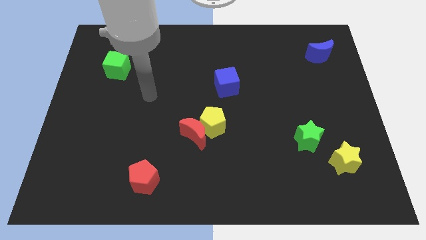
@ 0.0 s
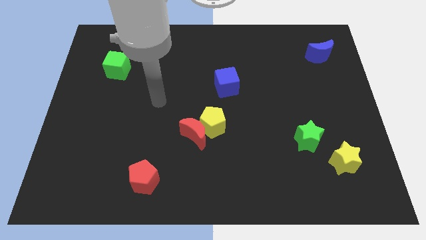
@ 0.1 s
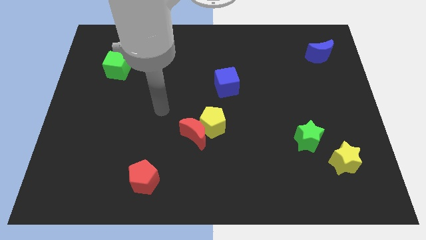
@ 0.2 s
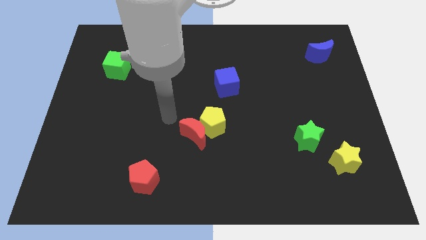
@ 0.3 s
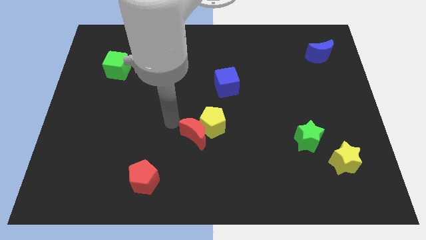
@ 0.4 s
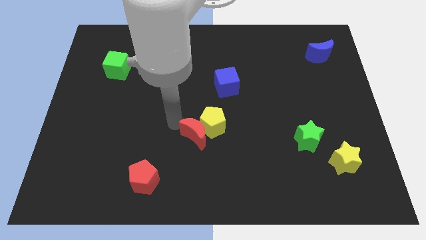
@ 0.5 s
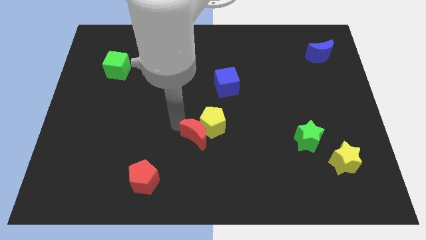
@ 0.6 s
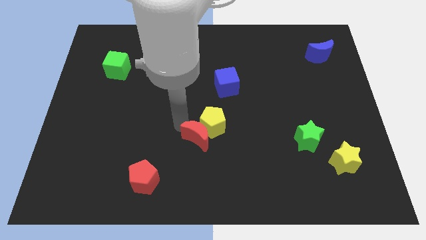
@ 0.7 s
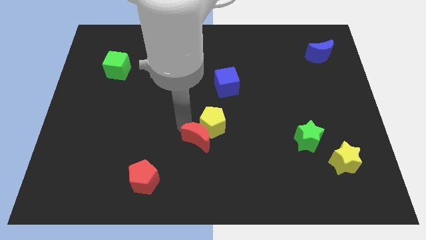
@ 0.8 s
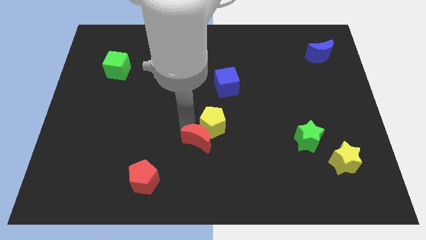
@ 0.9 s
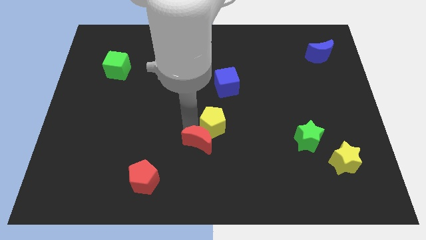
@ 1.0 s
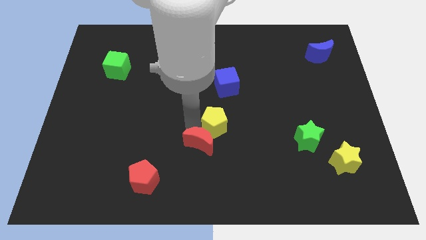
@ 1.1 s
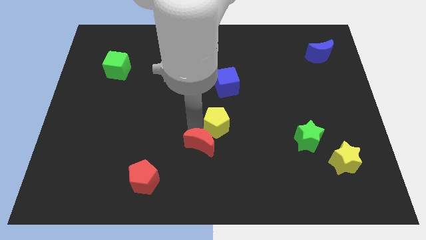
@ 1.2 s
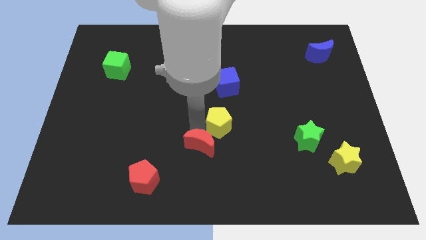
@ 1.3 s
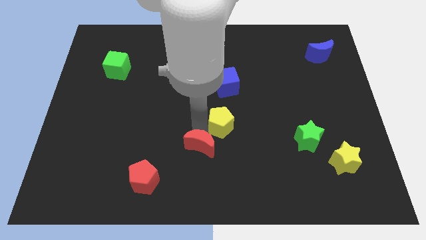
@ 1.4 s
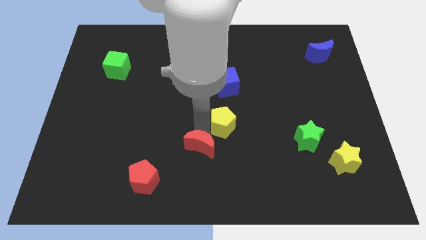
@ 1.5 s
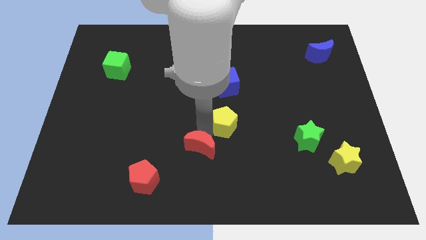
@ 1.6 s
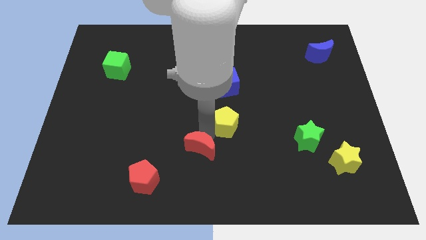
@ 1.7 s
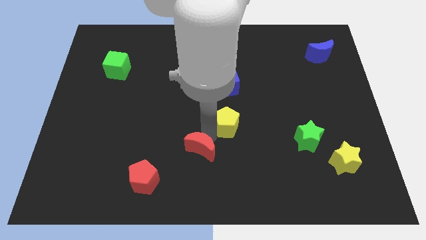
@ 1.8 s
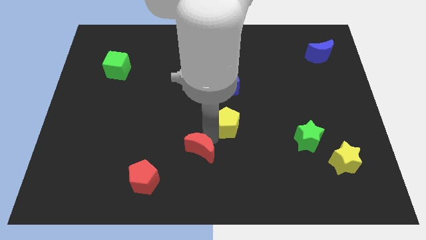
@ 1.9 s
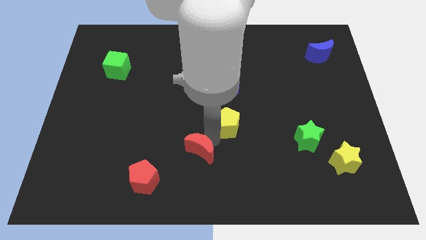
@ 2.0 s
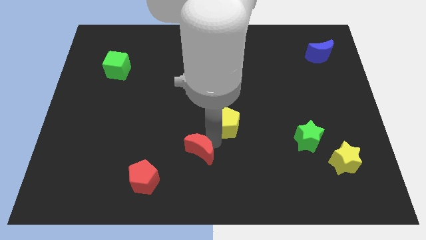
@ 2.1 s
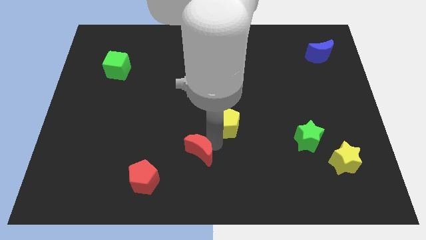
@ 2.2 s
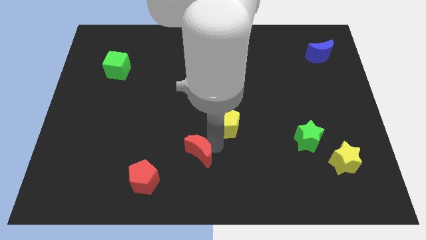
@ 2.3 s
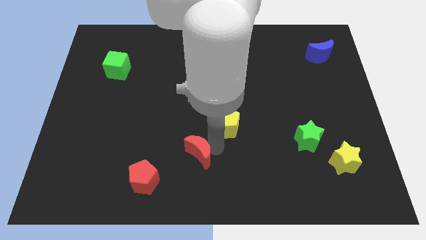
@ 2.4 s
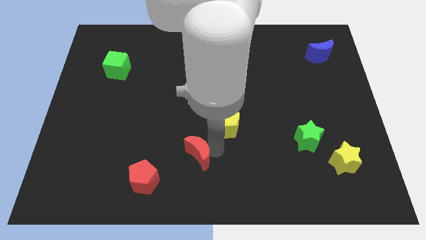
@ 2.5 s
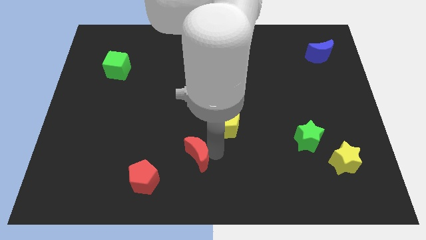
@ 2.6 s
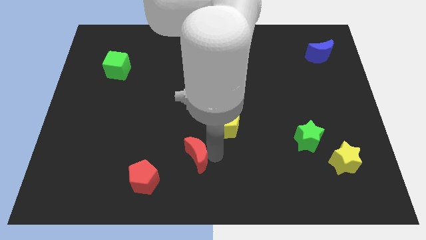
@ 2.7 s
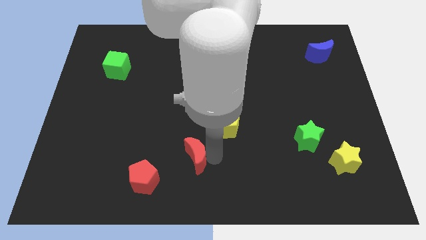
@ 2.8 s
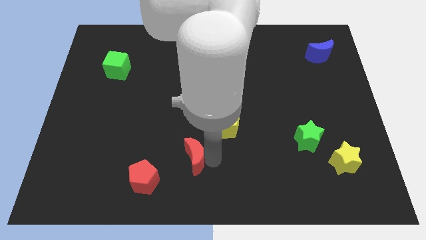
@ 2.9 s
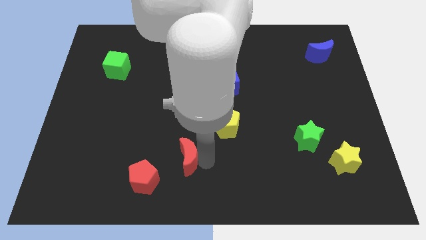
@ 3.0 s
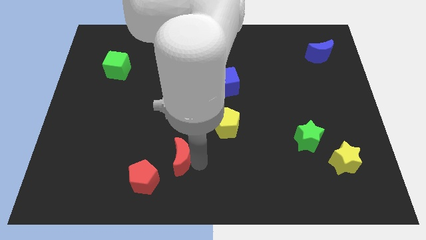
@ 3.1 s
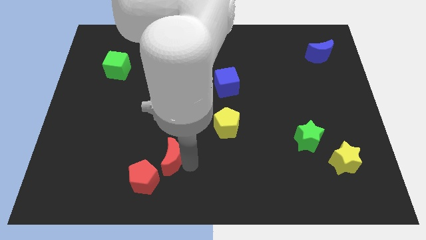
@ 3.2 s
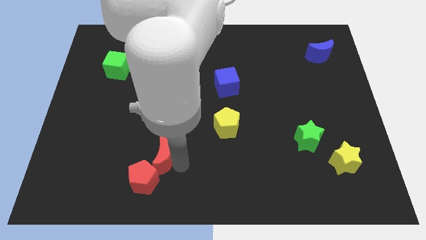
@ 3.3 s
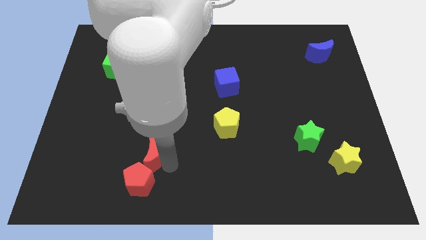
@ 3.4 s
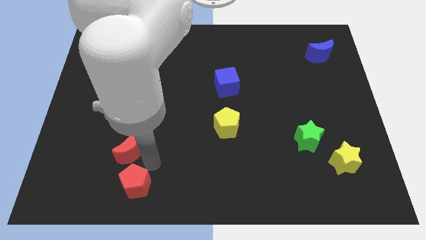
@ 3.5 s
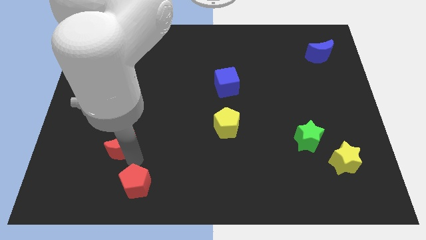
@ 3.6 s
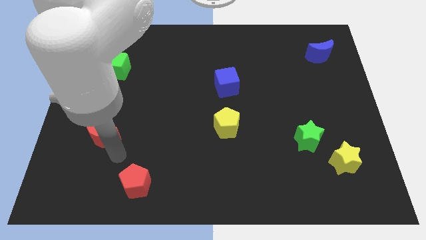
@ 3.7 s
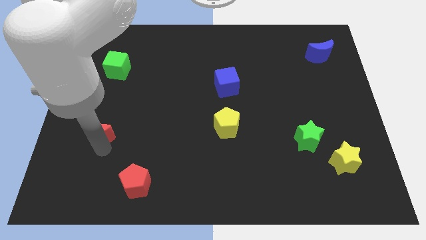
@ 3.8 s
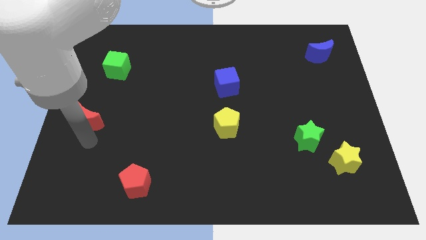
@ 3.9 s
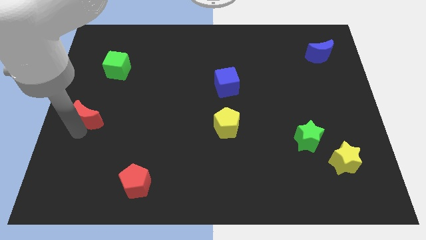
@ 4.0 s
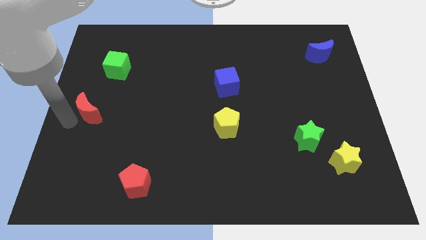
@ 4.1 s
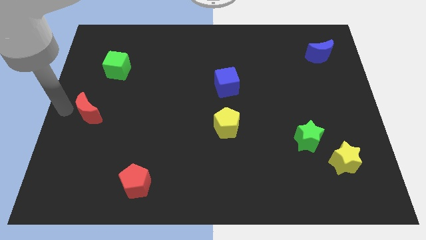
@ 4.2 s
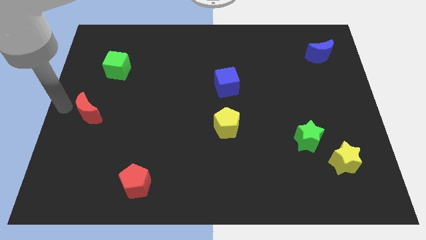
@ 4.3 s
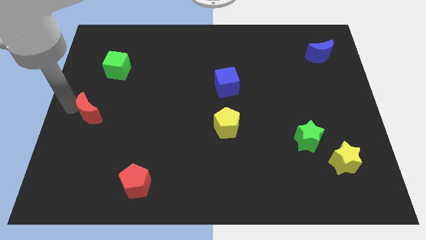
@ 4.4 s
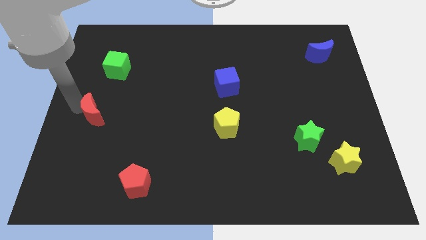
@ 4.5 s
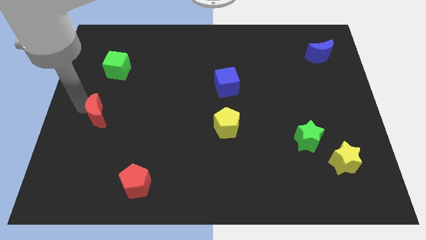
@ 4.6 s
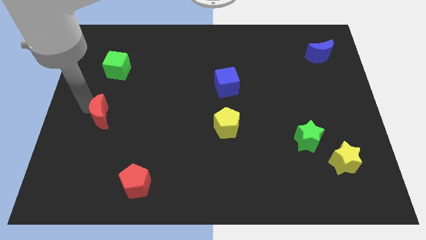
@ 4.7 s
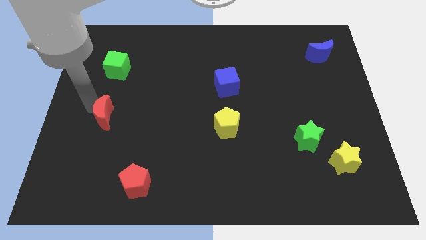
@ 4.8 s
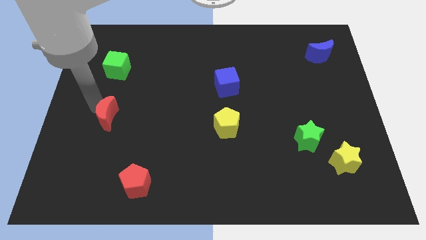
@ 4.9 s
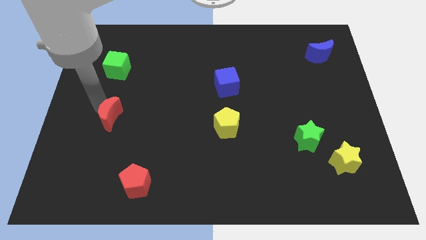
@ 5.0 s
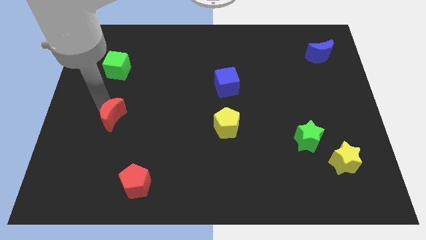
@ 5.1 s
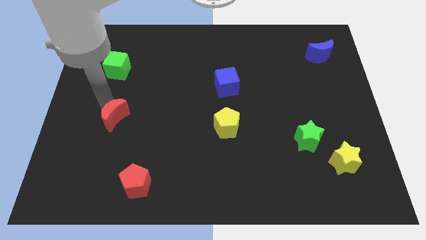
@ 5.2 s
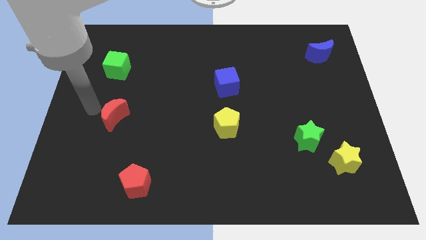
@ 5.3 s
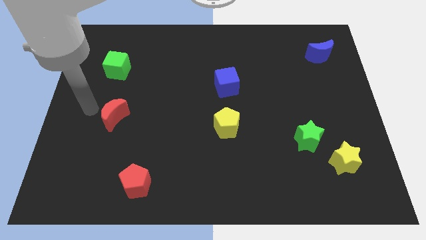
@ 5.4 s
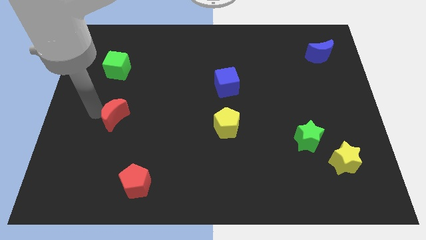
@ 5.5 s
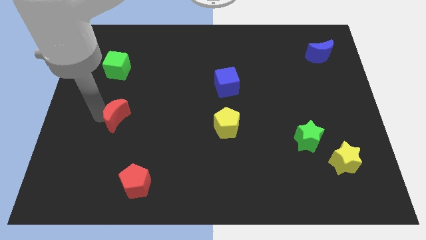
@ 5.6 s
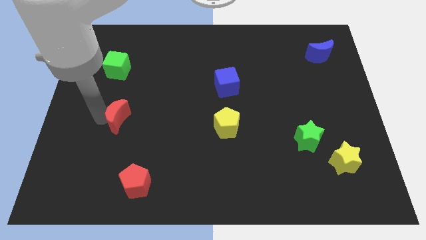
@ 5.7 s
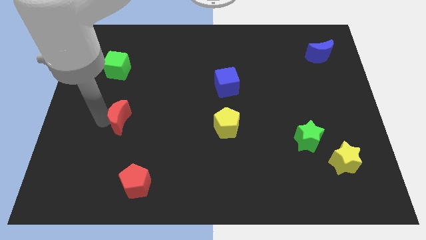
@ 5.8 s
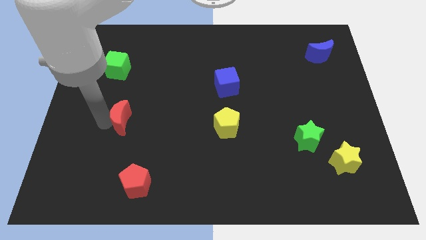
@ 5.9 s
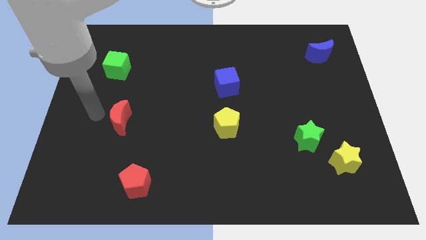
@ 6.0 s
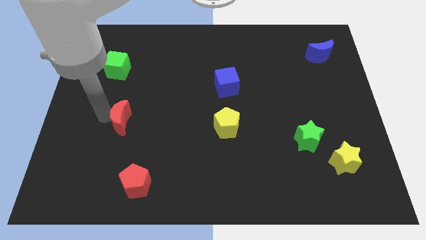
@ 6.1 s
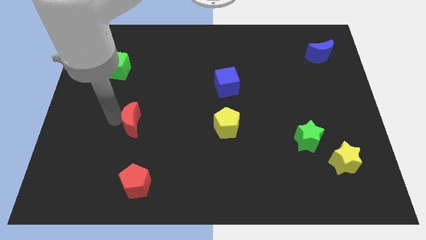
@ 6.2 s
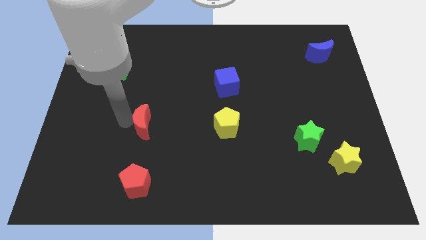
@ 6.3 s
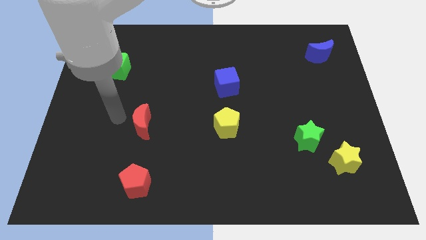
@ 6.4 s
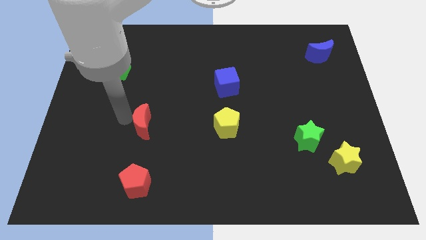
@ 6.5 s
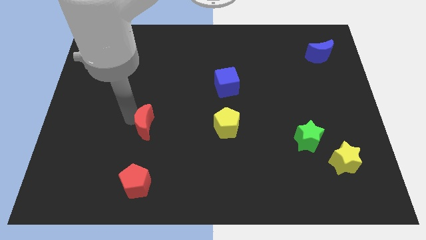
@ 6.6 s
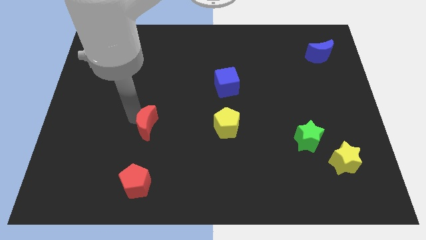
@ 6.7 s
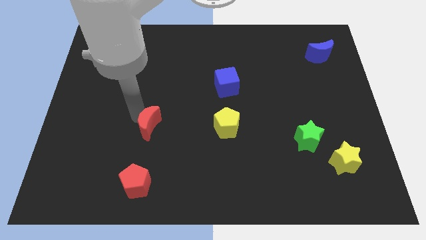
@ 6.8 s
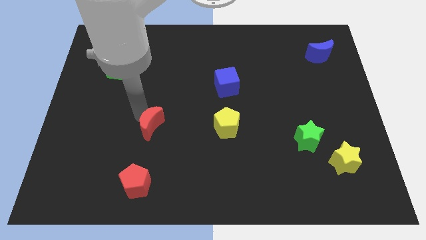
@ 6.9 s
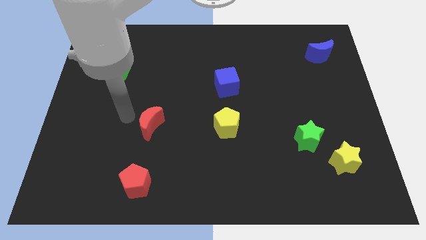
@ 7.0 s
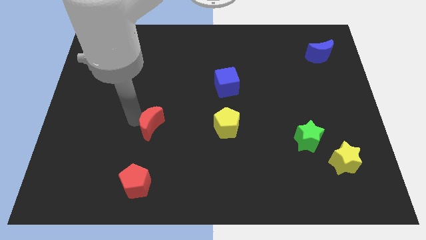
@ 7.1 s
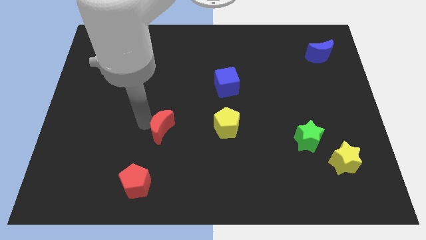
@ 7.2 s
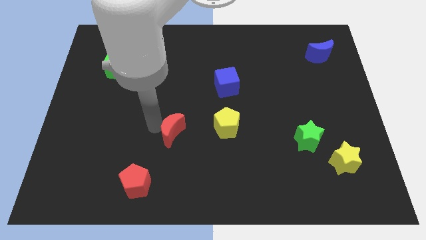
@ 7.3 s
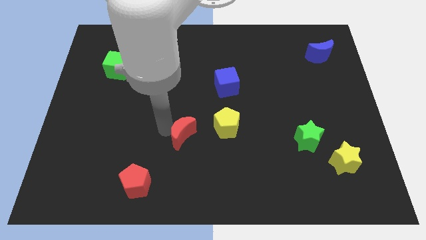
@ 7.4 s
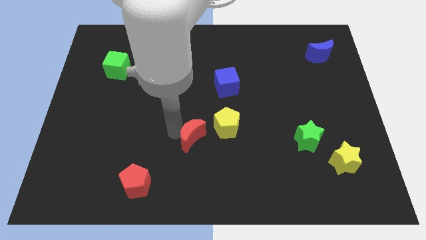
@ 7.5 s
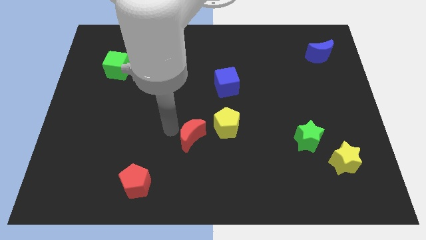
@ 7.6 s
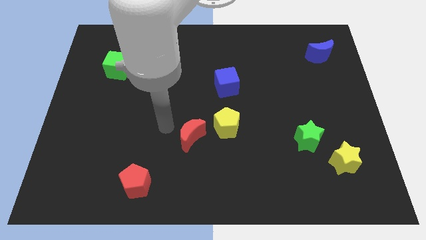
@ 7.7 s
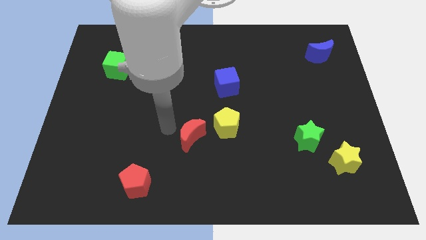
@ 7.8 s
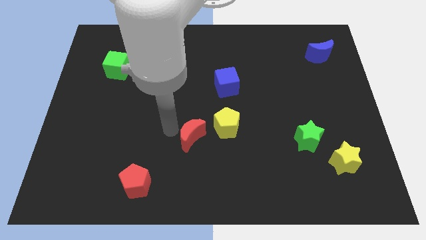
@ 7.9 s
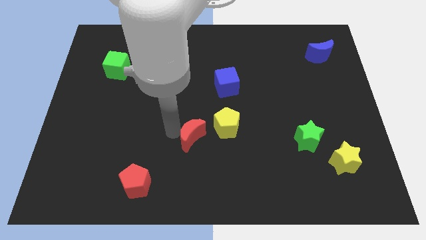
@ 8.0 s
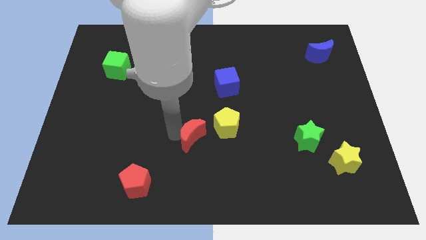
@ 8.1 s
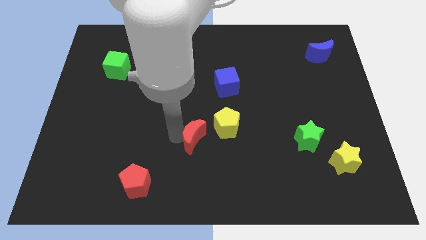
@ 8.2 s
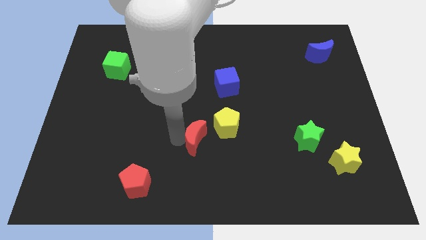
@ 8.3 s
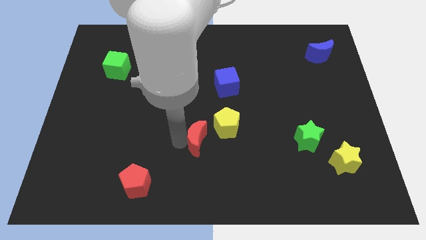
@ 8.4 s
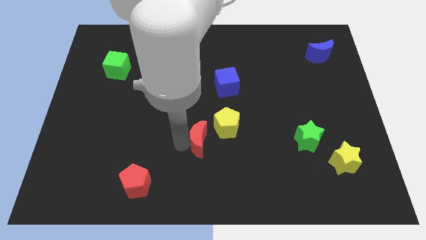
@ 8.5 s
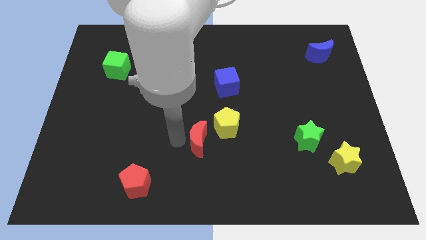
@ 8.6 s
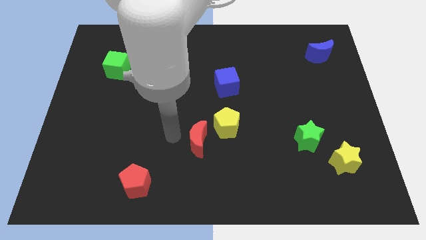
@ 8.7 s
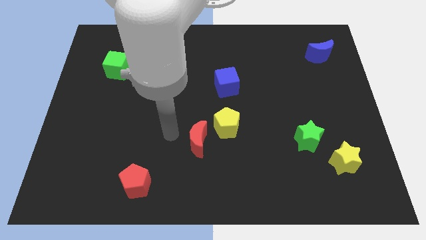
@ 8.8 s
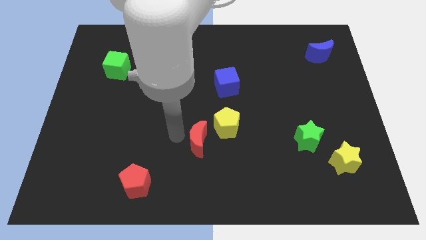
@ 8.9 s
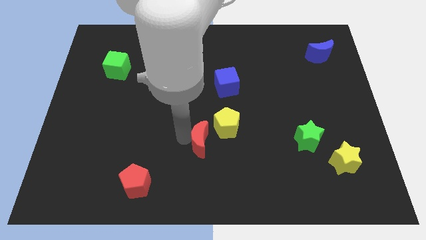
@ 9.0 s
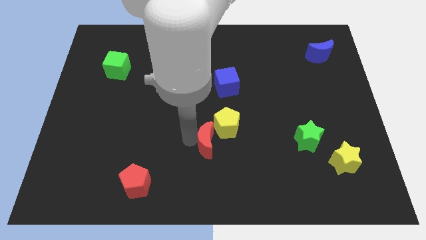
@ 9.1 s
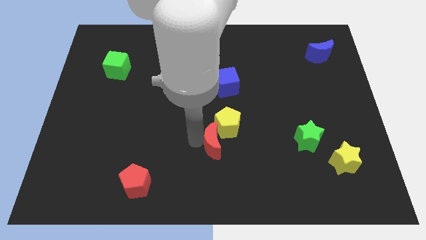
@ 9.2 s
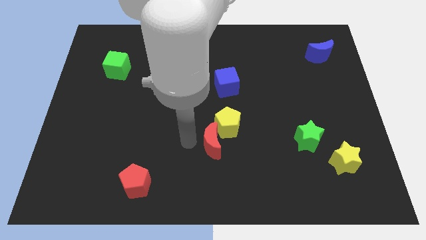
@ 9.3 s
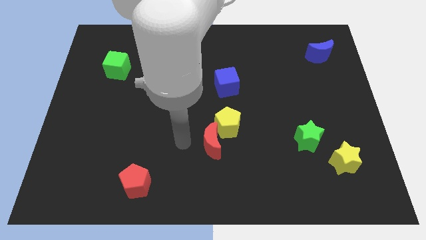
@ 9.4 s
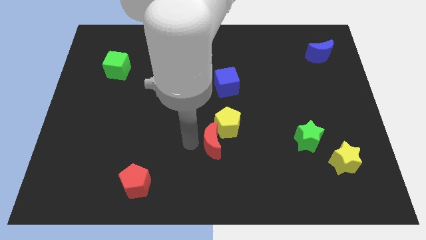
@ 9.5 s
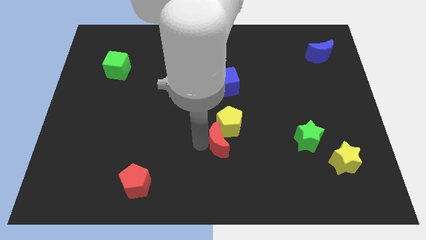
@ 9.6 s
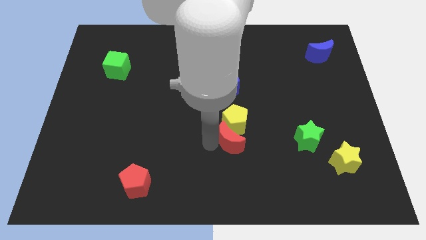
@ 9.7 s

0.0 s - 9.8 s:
move the red moon diagonally down and to the right of the yellow pentagon
